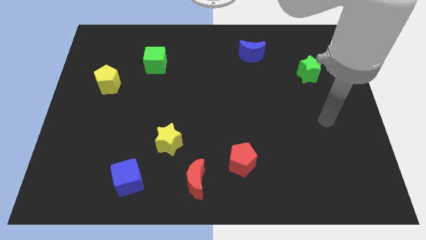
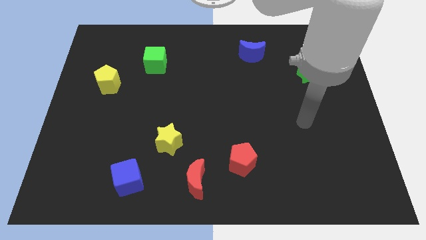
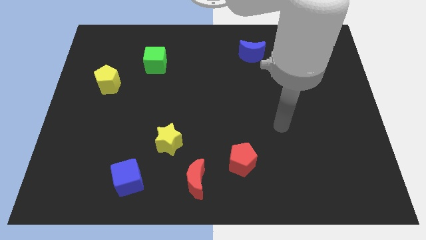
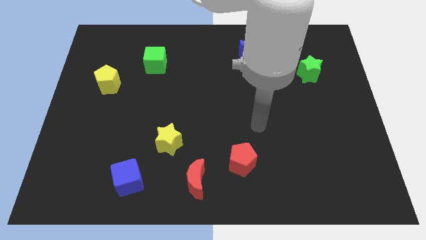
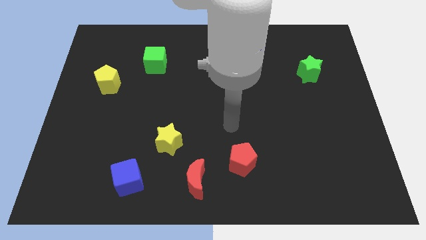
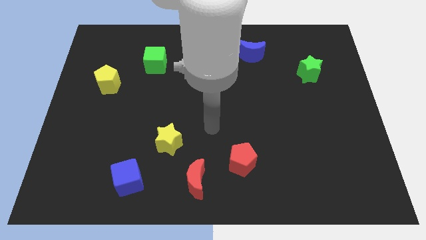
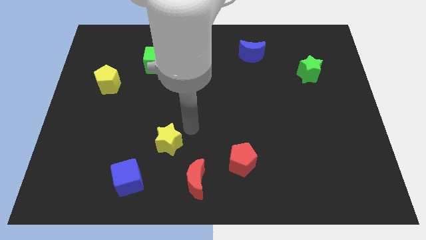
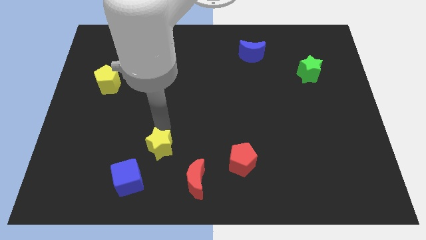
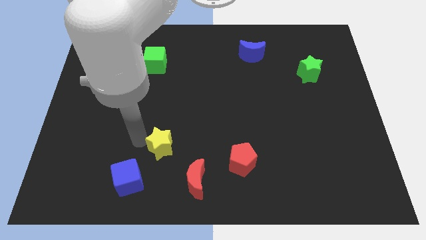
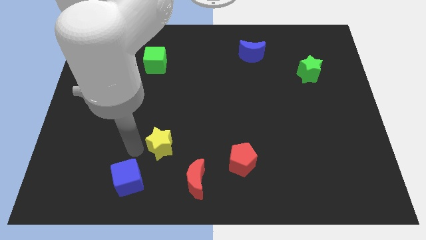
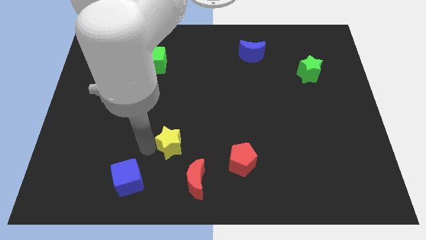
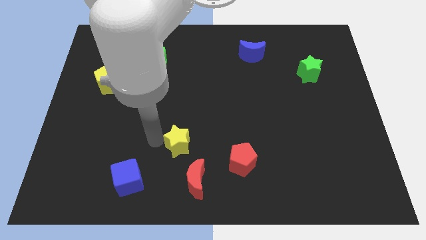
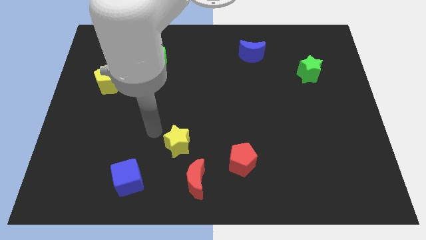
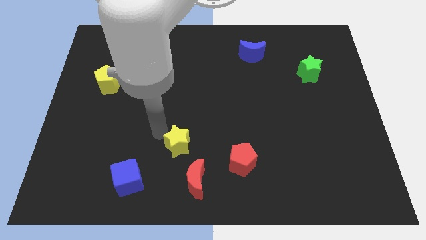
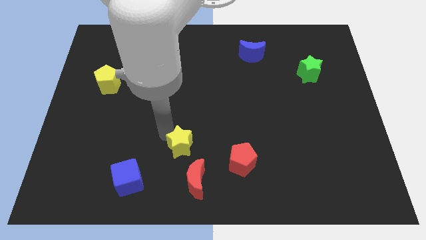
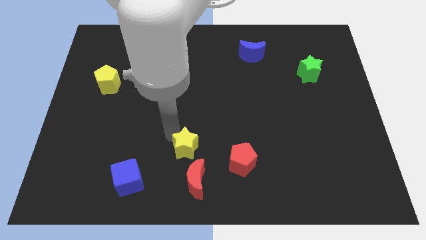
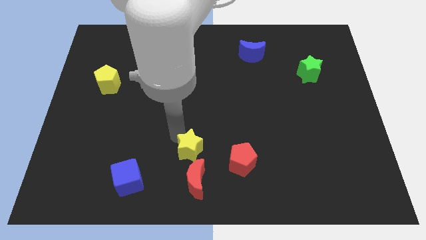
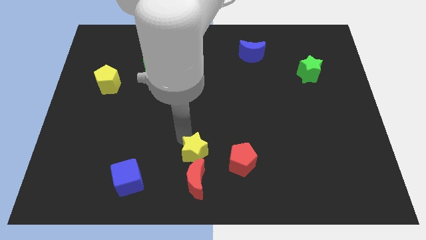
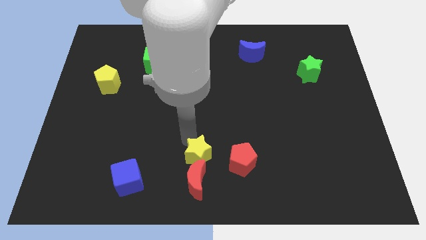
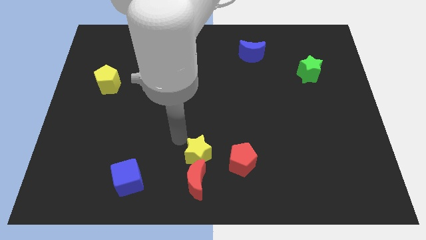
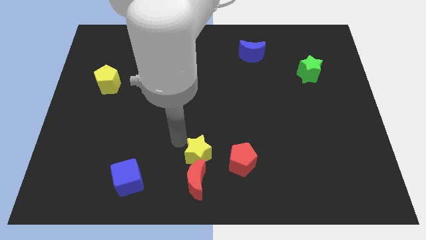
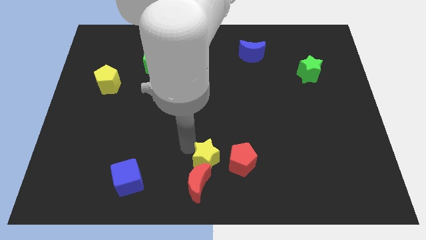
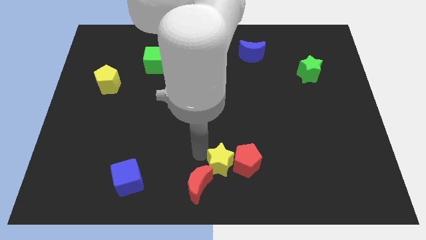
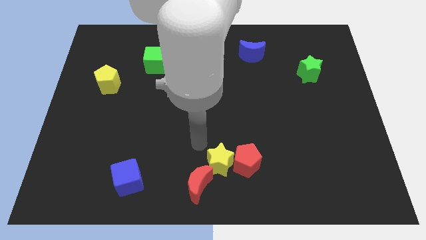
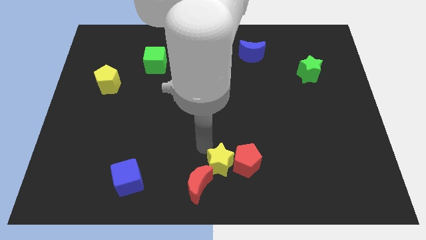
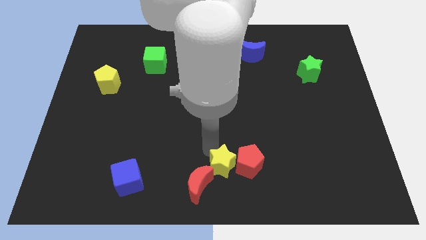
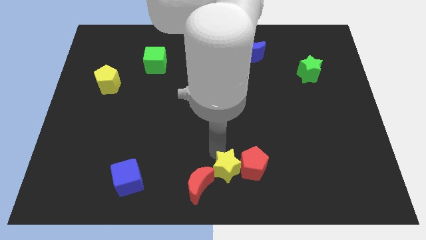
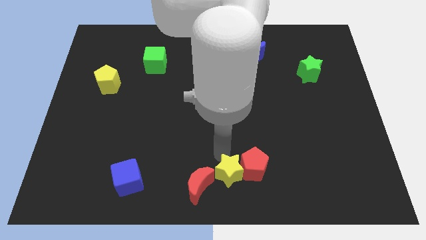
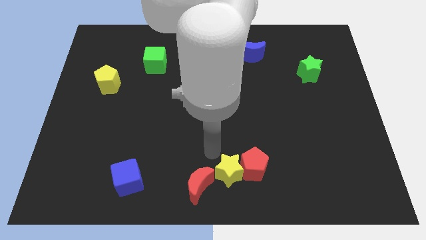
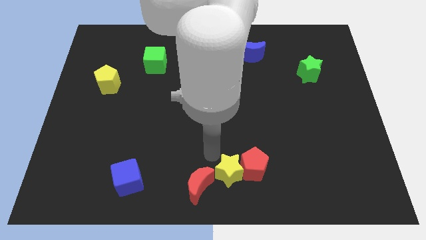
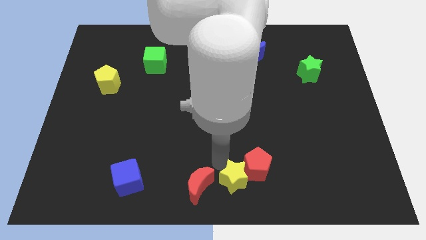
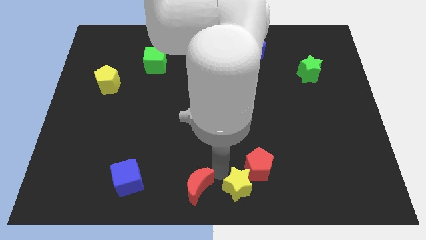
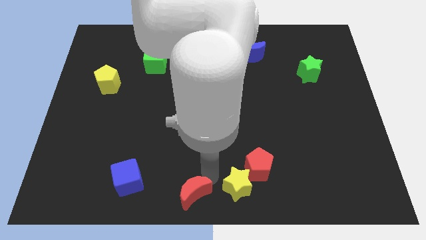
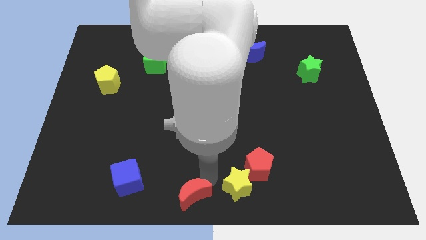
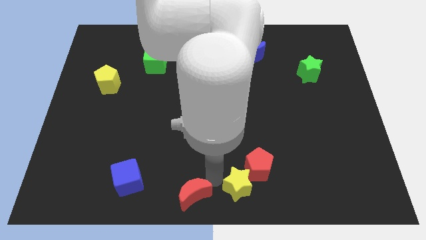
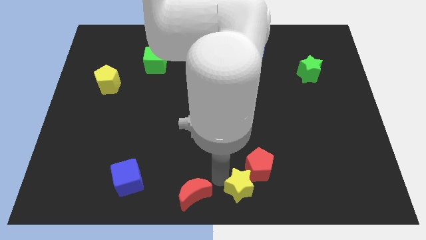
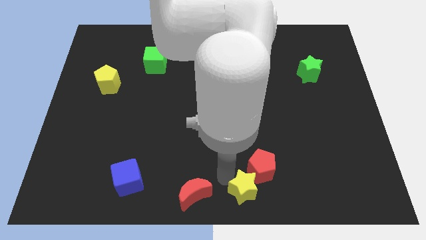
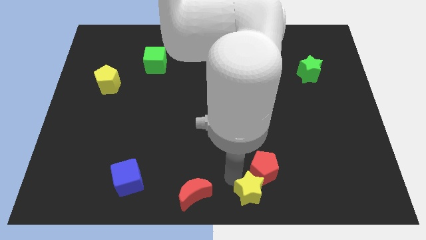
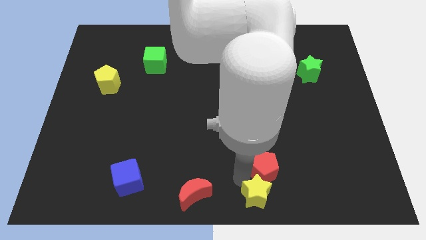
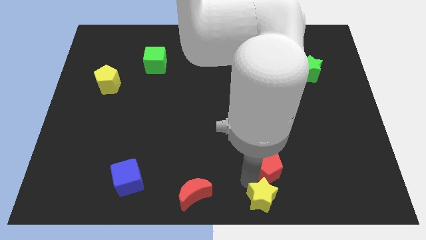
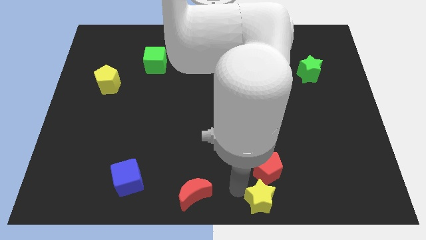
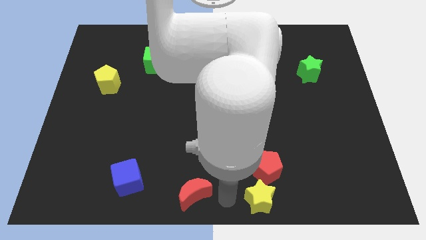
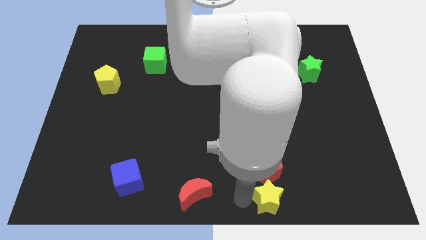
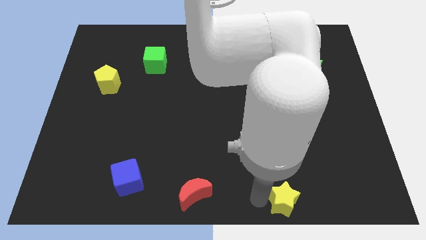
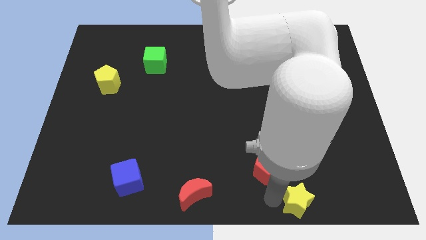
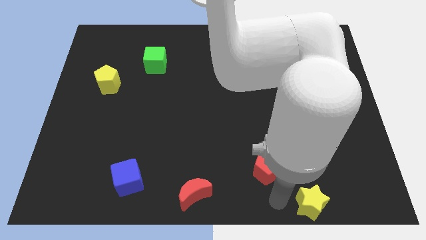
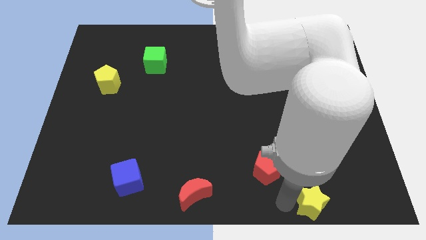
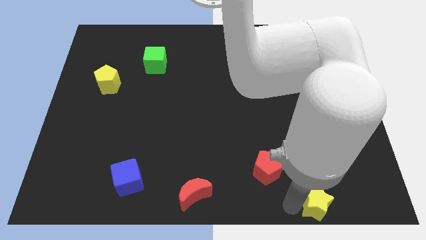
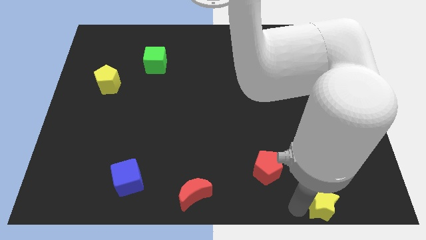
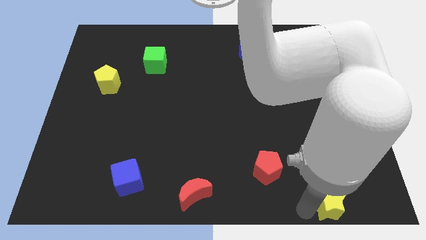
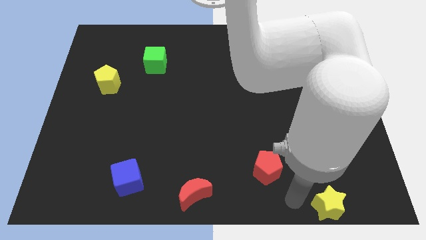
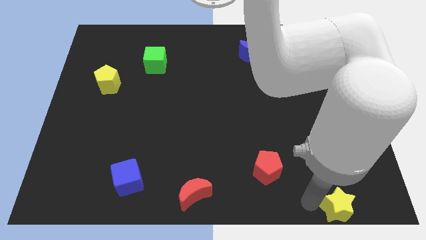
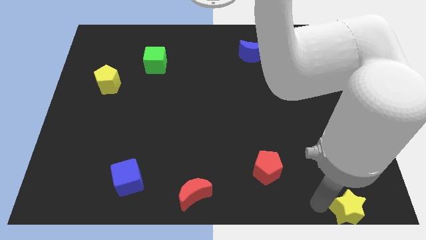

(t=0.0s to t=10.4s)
move the yellow star to the bottom right

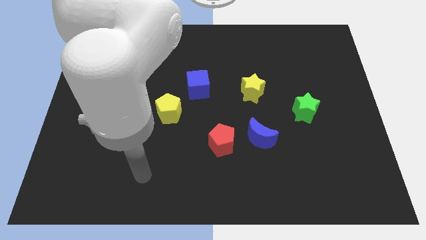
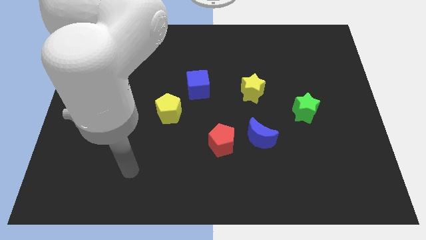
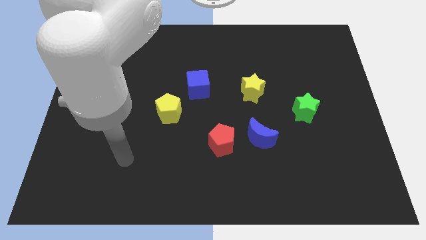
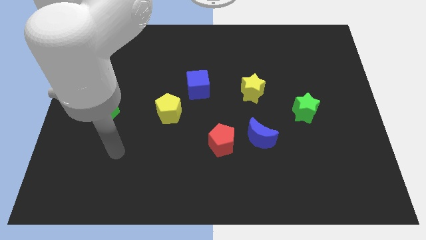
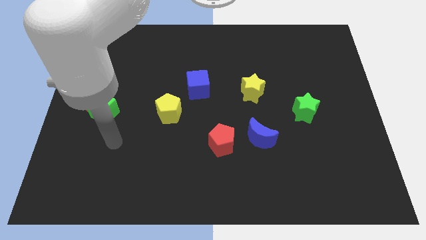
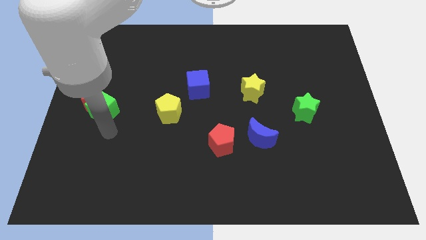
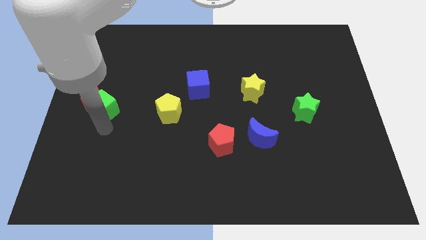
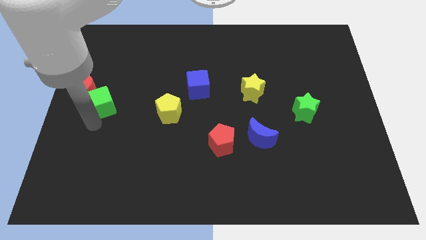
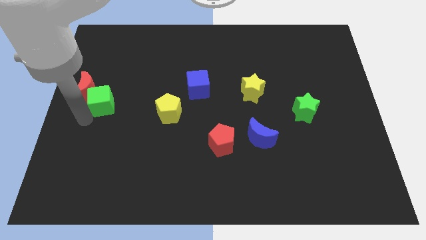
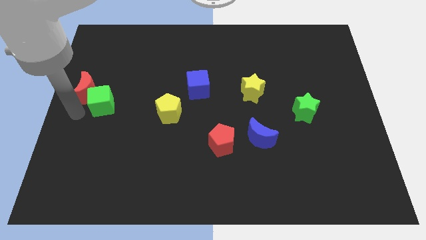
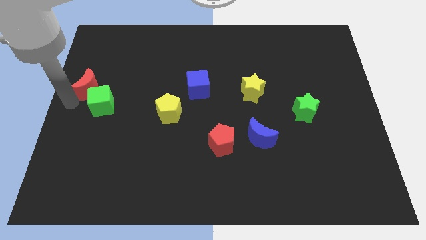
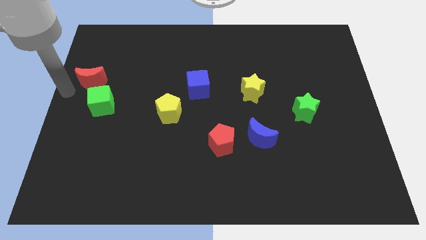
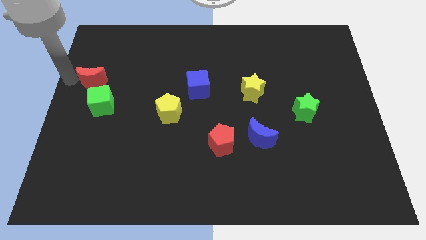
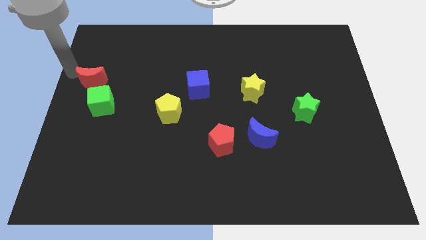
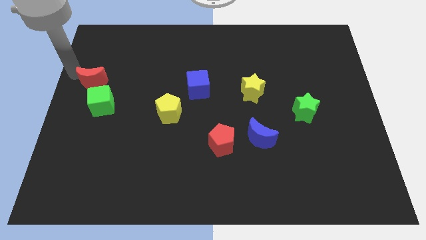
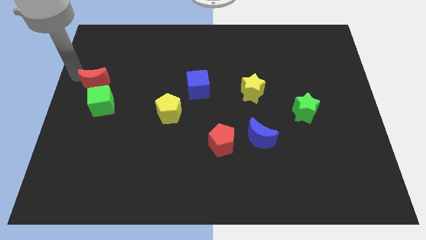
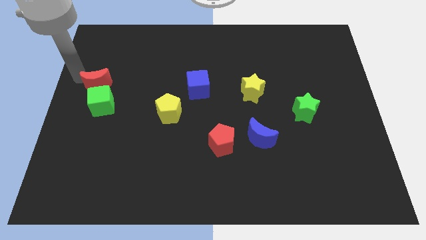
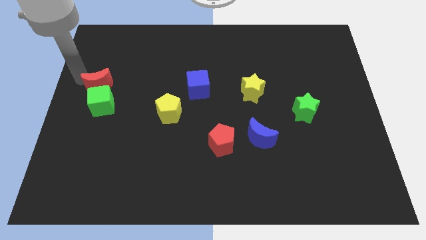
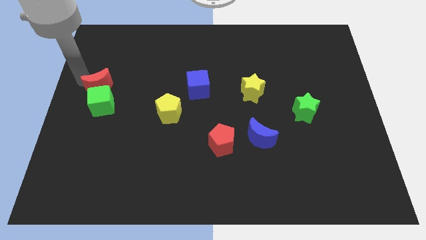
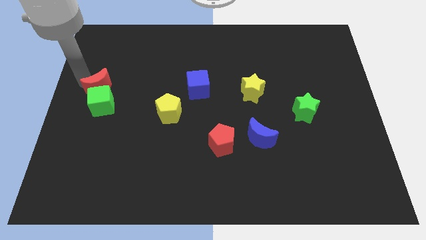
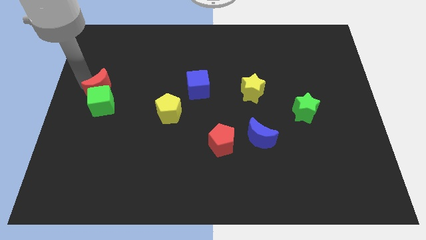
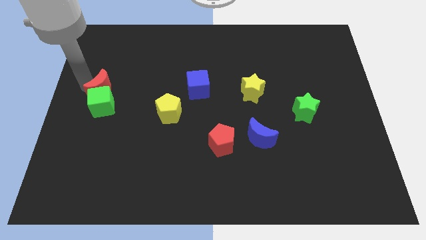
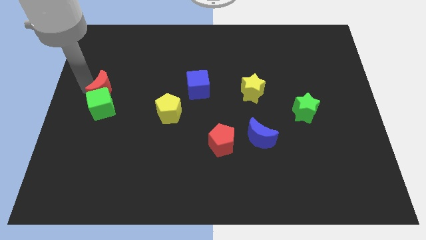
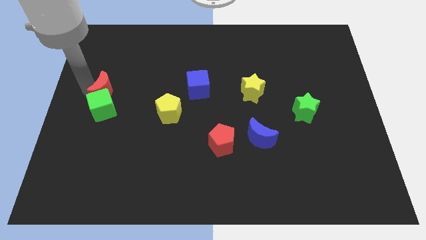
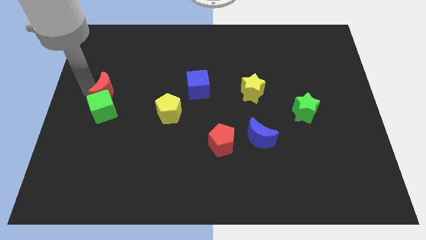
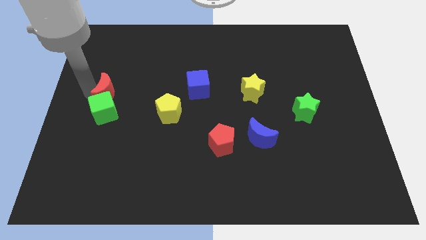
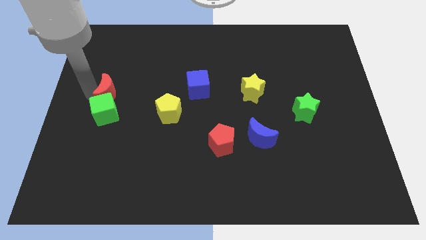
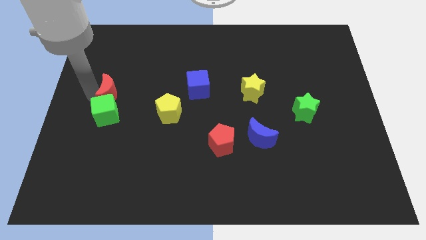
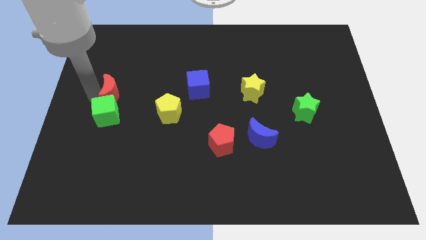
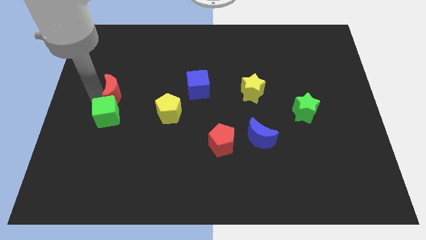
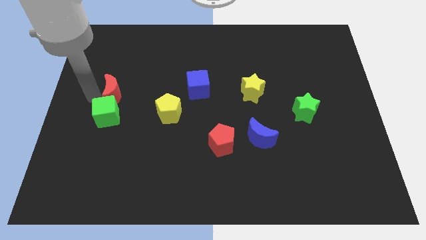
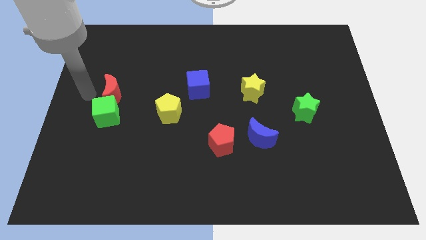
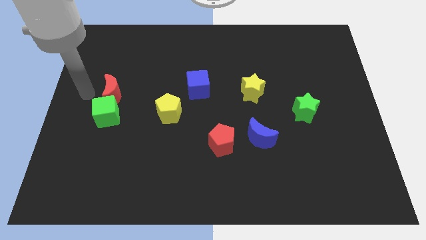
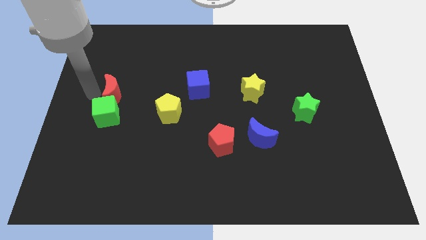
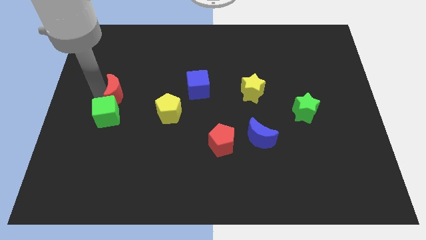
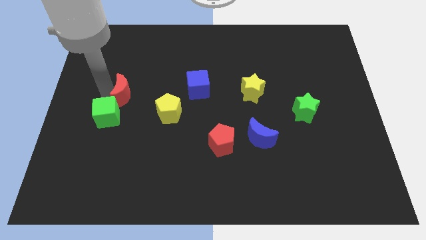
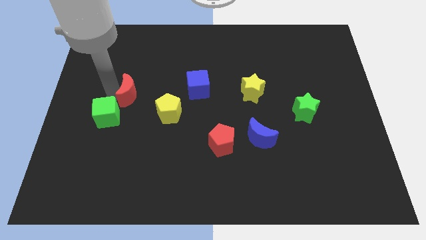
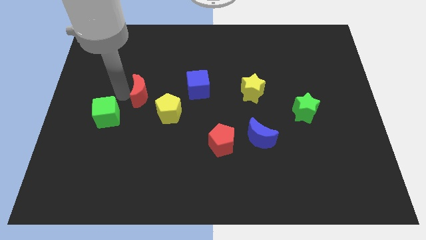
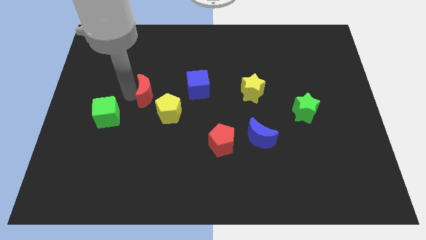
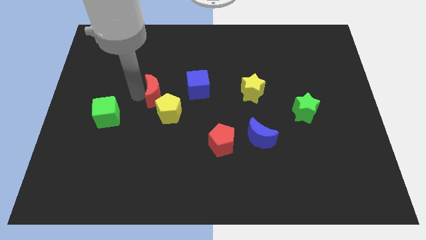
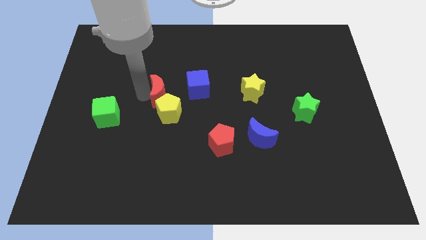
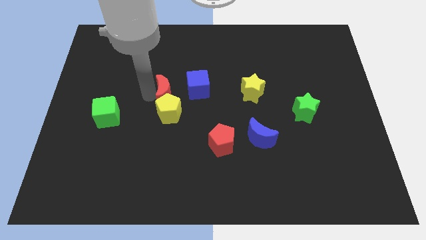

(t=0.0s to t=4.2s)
move the red moon to the center
